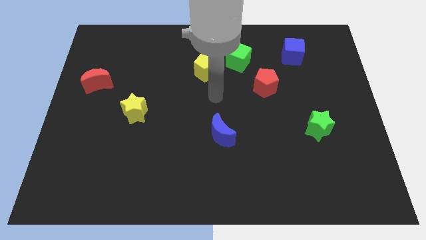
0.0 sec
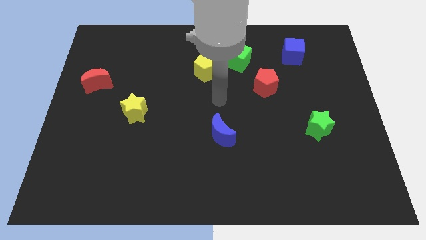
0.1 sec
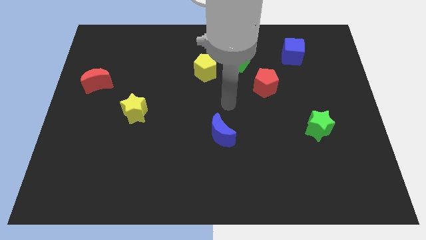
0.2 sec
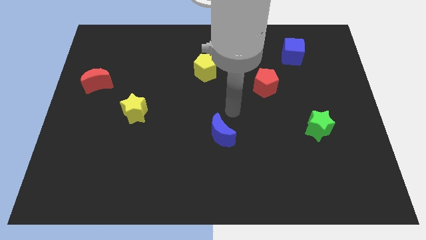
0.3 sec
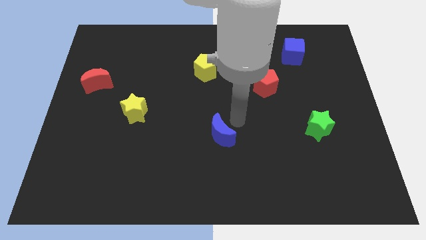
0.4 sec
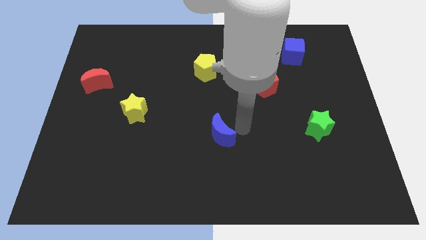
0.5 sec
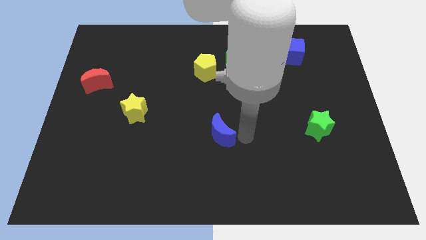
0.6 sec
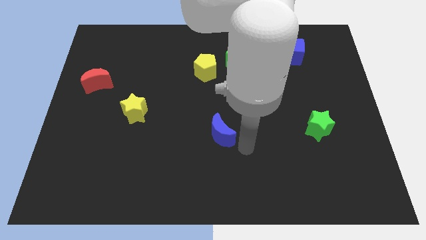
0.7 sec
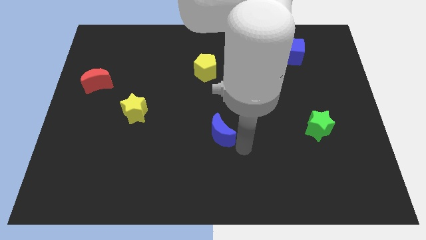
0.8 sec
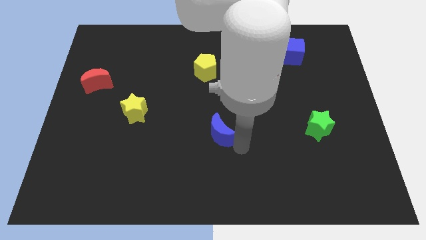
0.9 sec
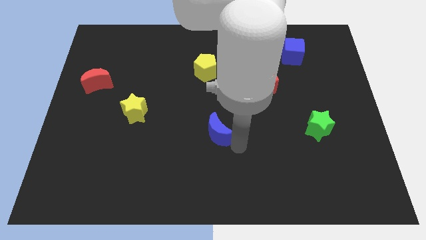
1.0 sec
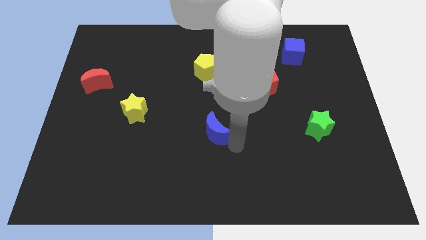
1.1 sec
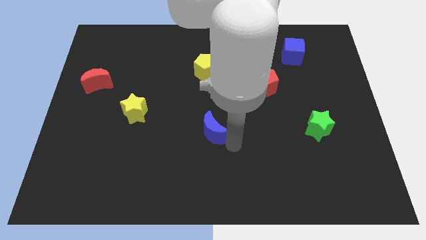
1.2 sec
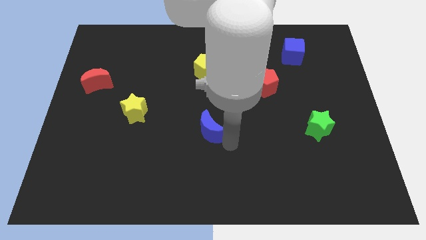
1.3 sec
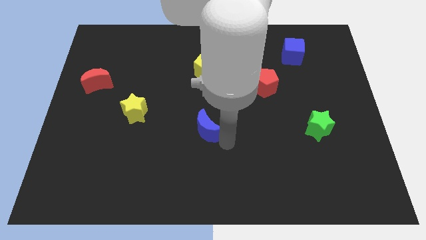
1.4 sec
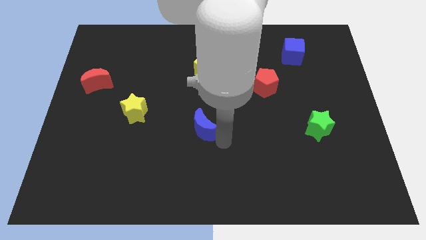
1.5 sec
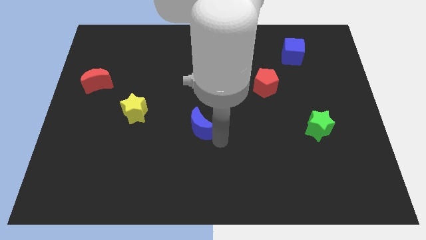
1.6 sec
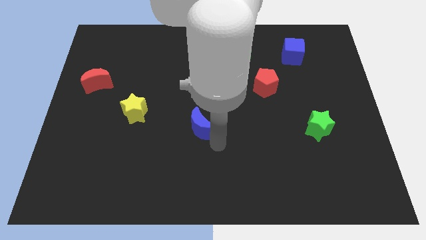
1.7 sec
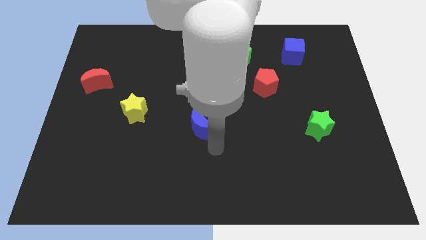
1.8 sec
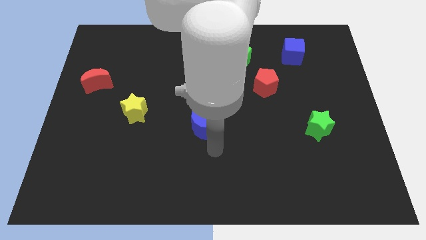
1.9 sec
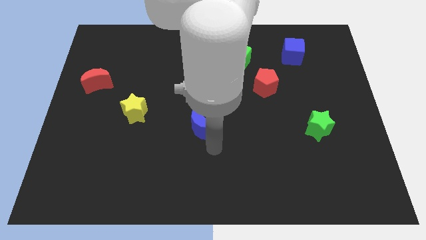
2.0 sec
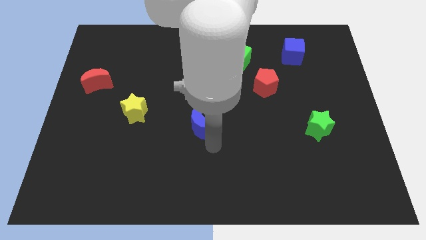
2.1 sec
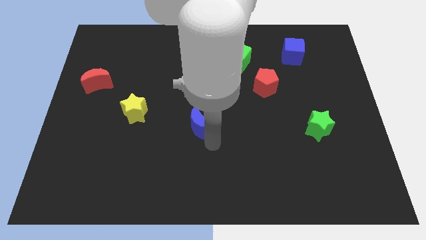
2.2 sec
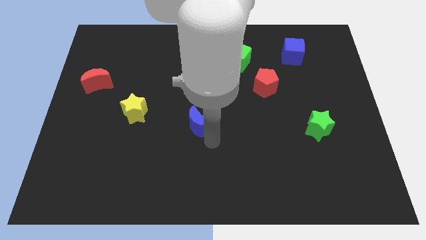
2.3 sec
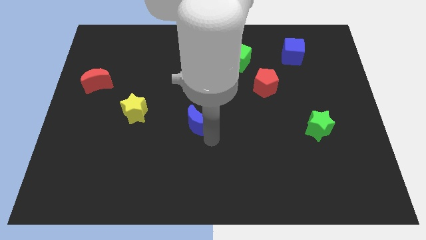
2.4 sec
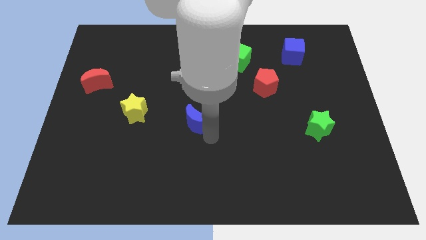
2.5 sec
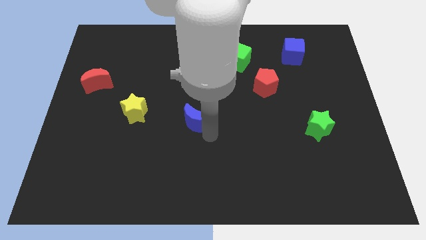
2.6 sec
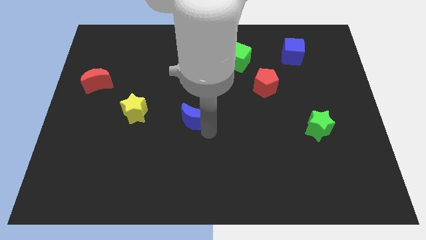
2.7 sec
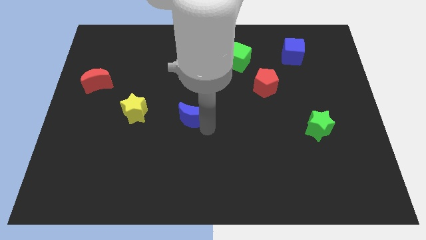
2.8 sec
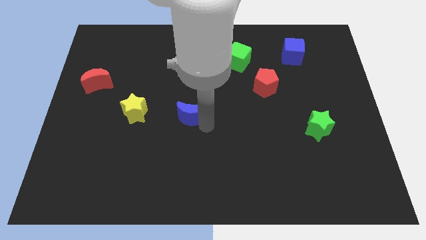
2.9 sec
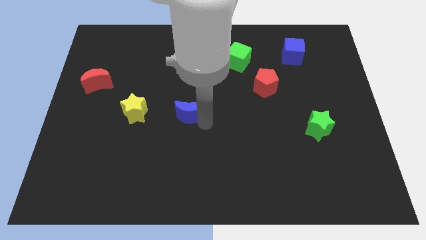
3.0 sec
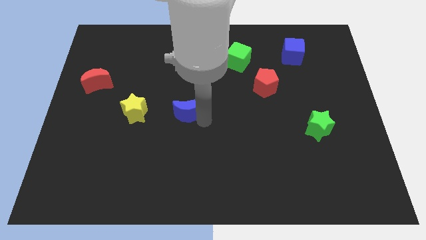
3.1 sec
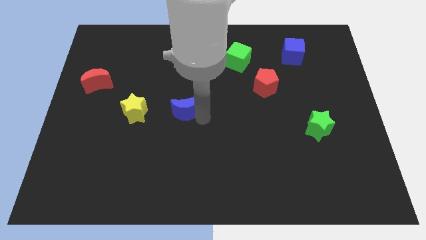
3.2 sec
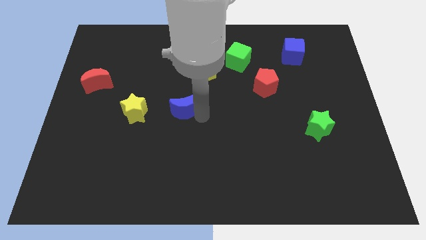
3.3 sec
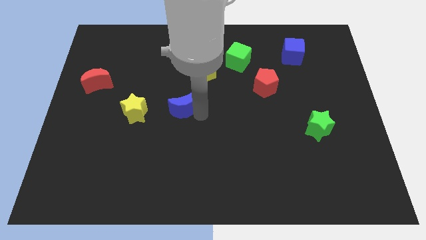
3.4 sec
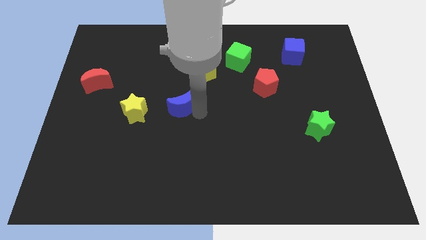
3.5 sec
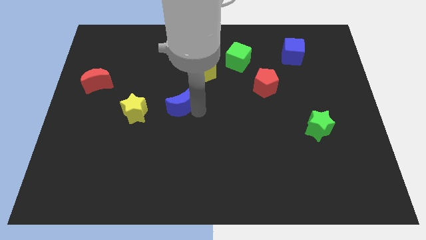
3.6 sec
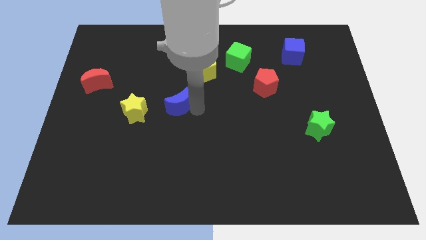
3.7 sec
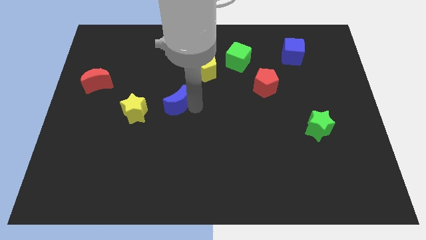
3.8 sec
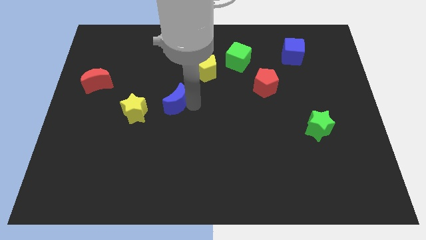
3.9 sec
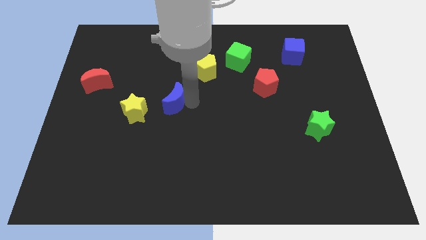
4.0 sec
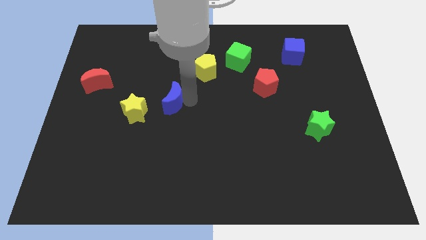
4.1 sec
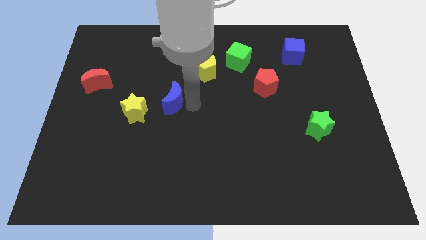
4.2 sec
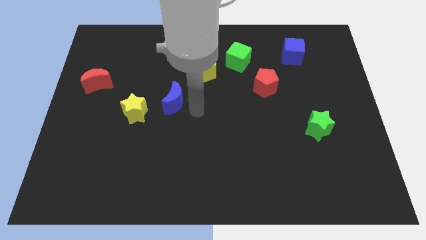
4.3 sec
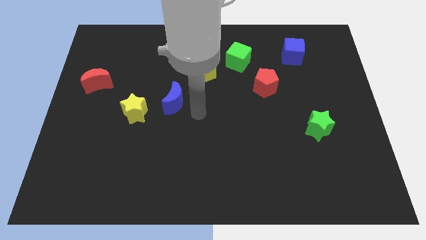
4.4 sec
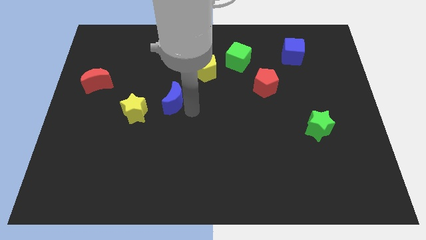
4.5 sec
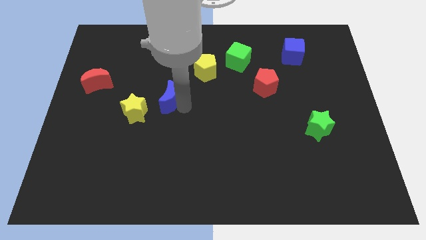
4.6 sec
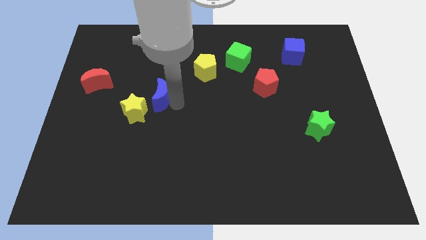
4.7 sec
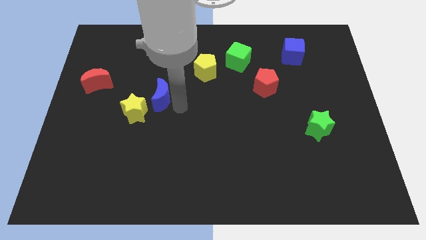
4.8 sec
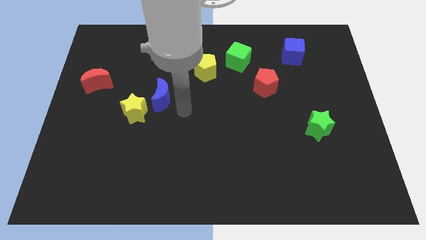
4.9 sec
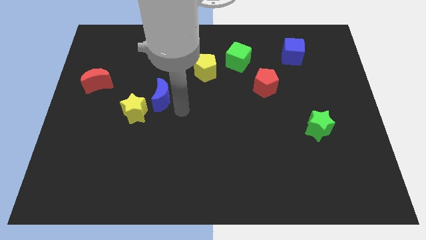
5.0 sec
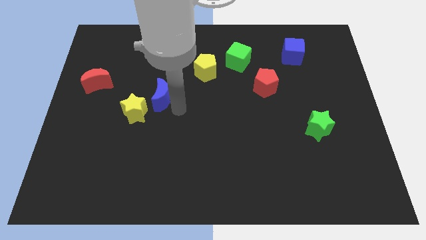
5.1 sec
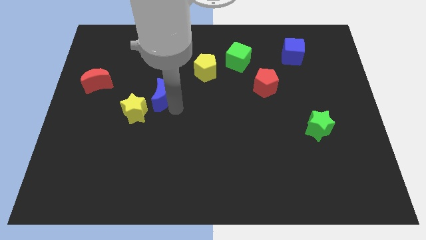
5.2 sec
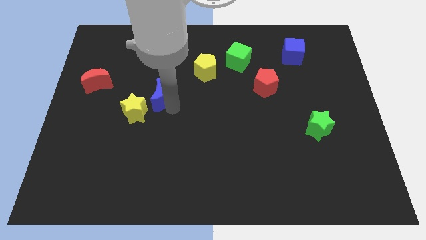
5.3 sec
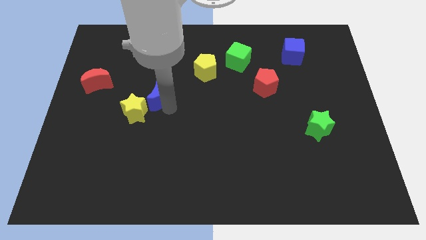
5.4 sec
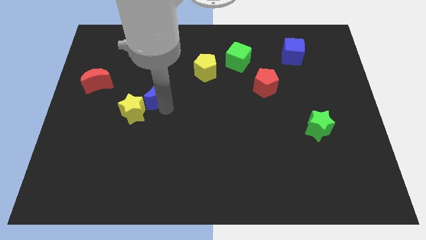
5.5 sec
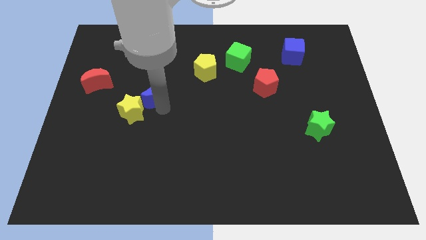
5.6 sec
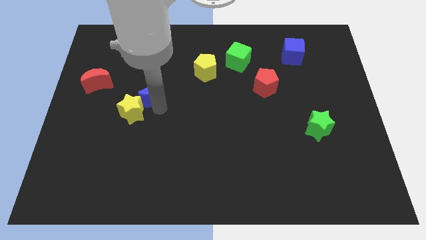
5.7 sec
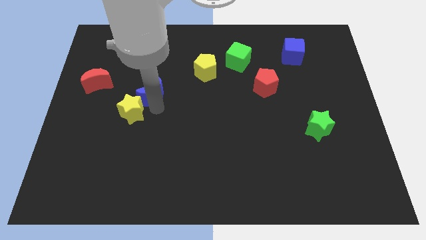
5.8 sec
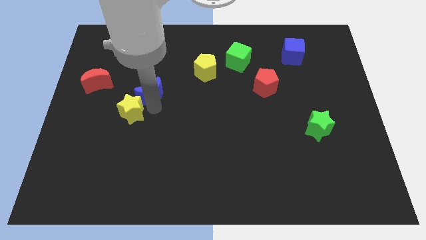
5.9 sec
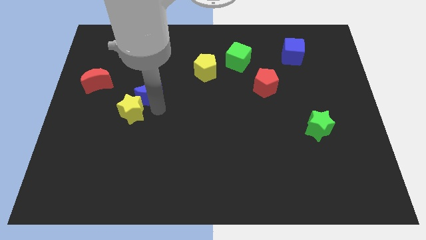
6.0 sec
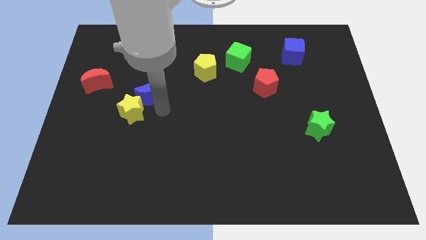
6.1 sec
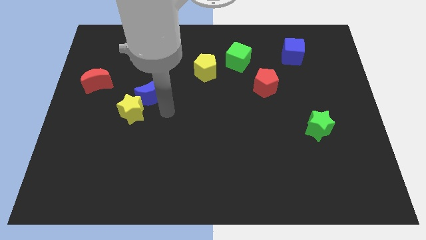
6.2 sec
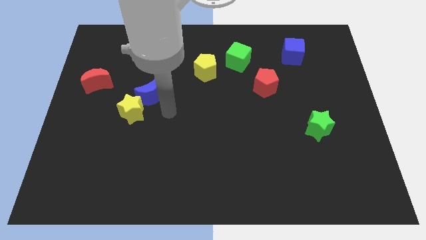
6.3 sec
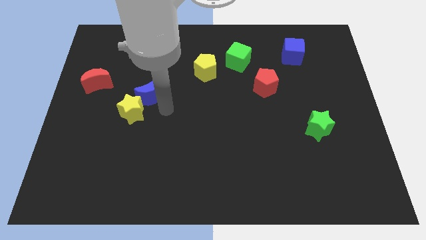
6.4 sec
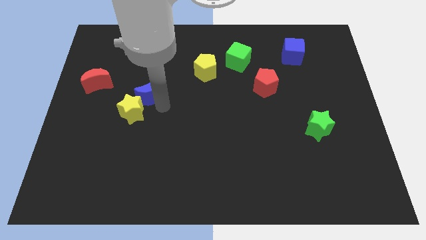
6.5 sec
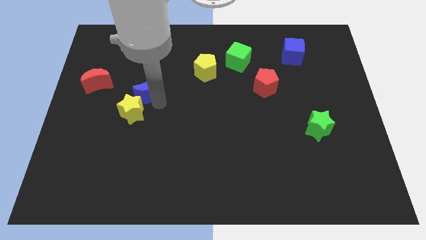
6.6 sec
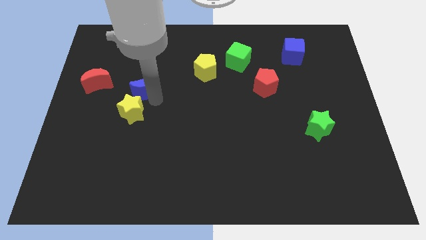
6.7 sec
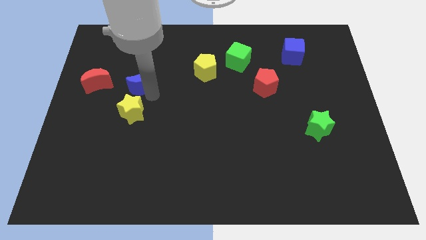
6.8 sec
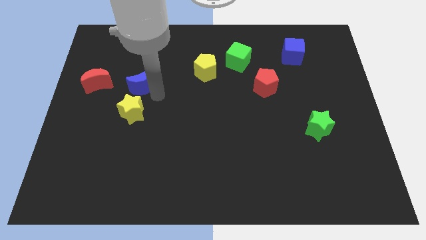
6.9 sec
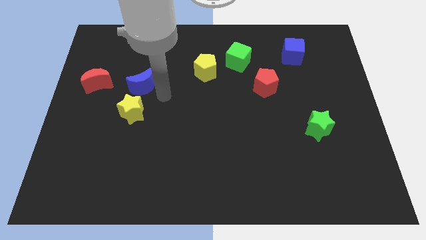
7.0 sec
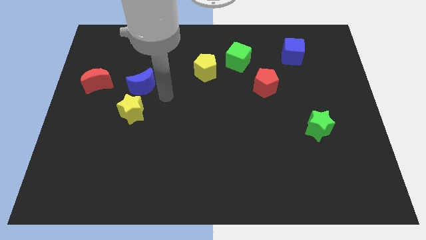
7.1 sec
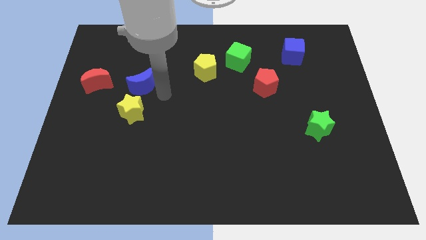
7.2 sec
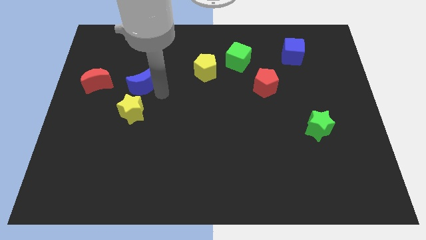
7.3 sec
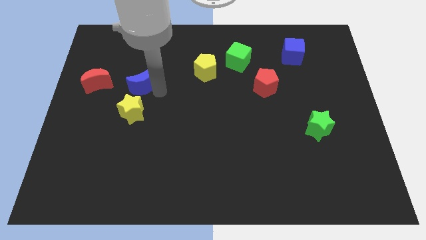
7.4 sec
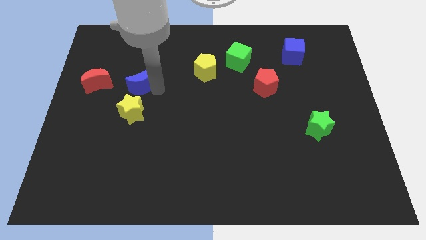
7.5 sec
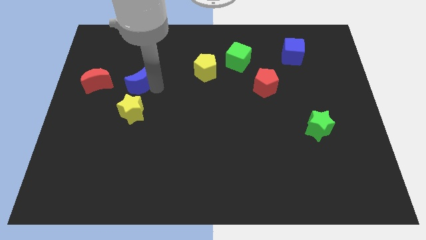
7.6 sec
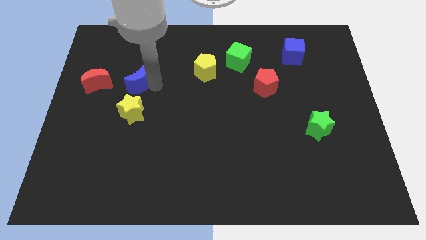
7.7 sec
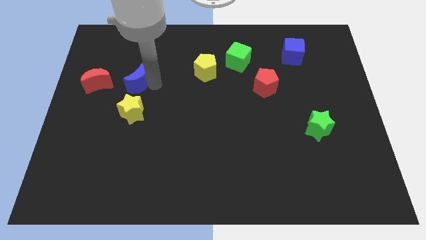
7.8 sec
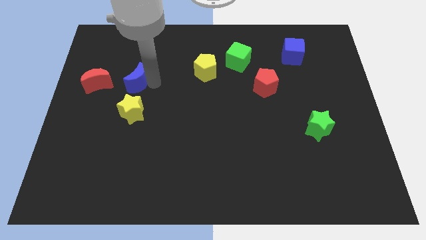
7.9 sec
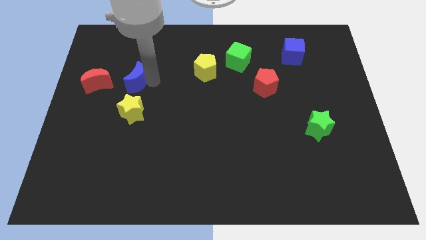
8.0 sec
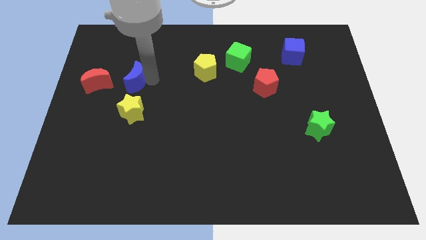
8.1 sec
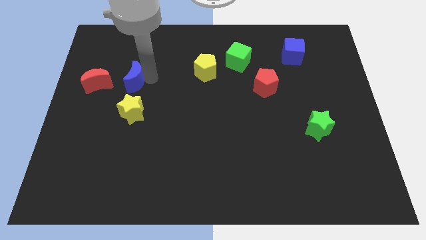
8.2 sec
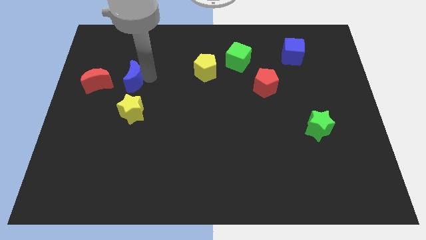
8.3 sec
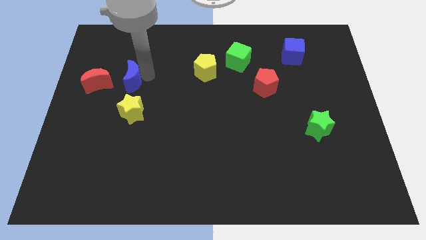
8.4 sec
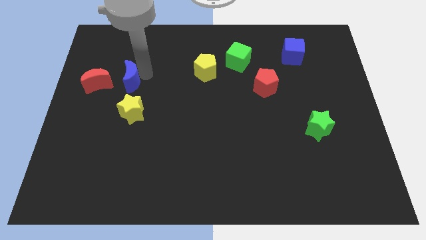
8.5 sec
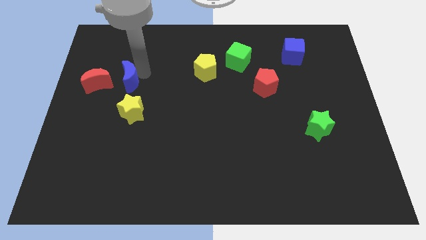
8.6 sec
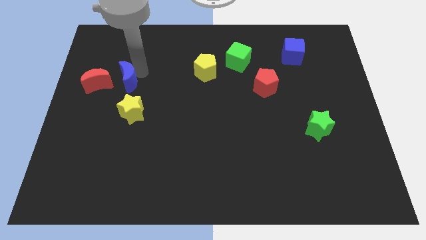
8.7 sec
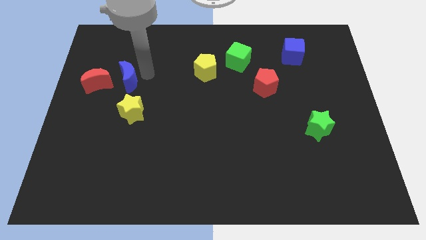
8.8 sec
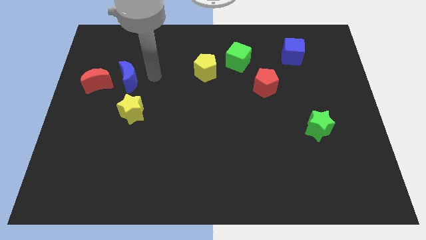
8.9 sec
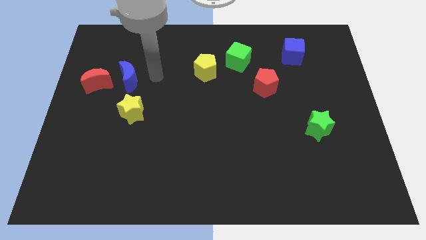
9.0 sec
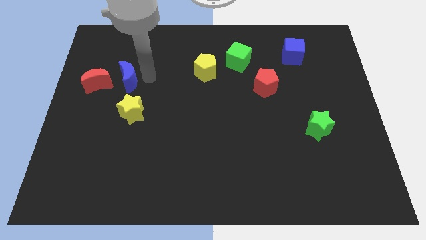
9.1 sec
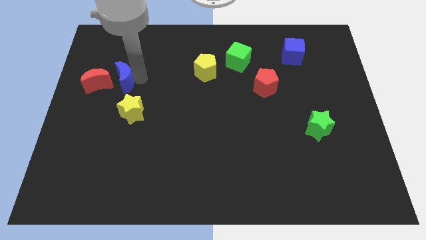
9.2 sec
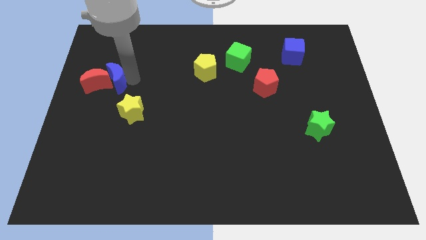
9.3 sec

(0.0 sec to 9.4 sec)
put the blue moon close to the red moon
